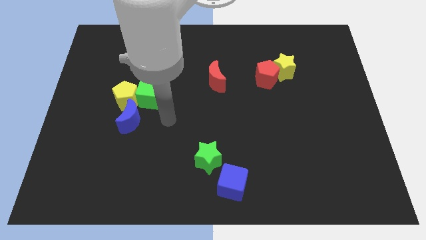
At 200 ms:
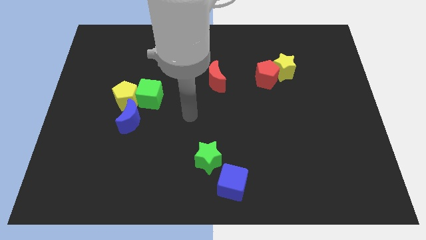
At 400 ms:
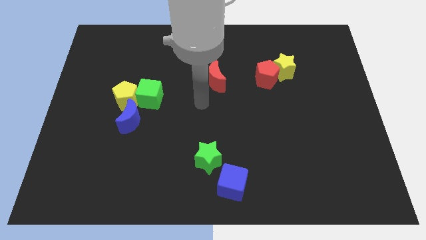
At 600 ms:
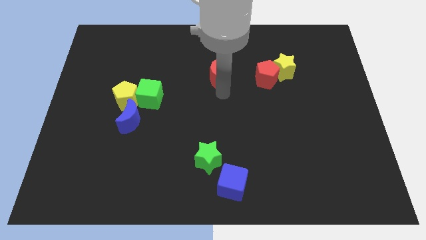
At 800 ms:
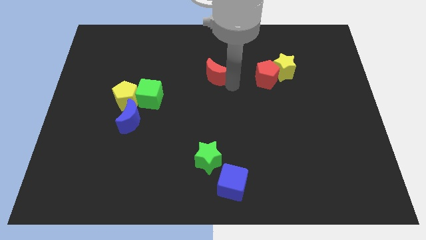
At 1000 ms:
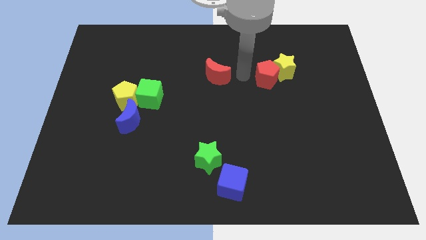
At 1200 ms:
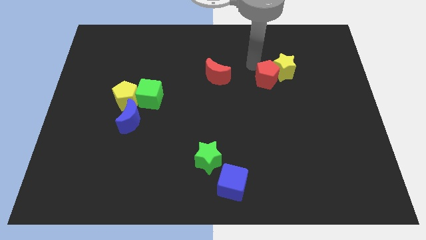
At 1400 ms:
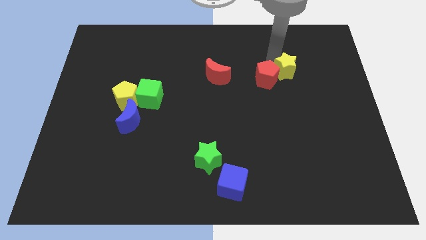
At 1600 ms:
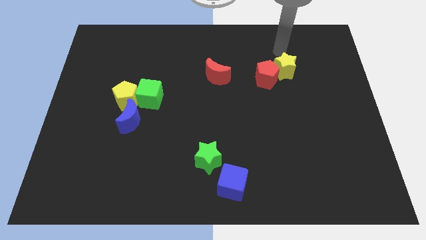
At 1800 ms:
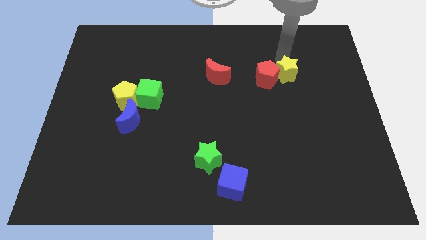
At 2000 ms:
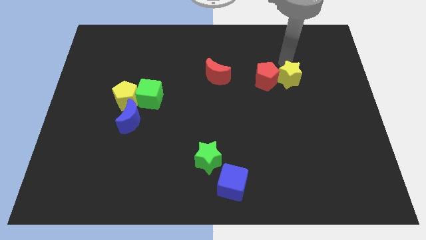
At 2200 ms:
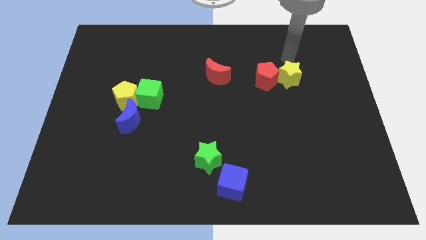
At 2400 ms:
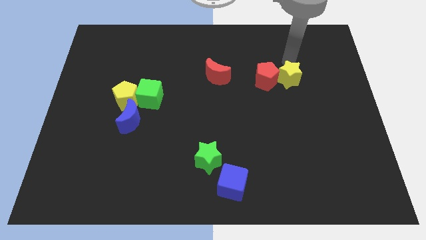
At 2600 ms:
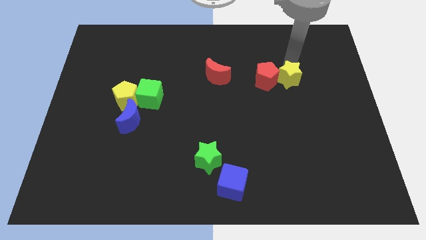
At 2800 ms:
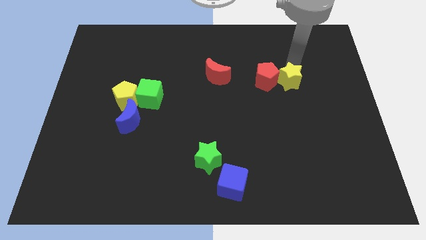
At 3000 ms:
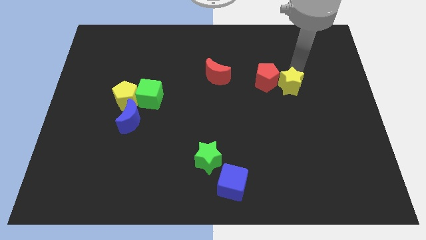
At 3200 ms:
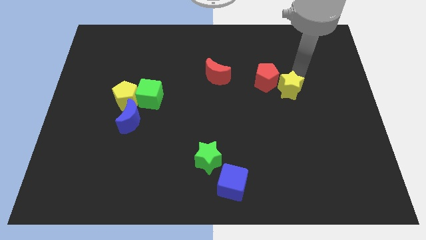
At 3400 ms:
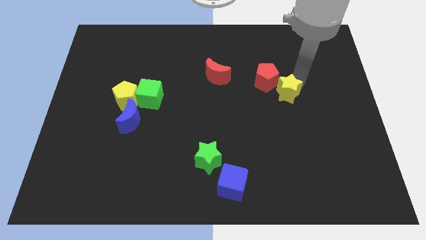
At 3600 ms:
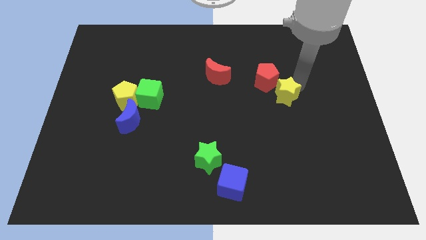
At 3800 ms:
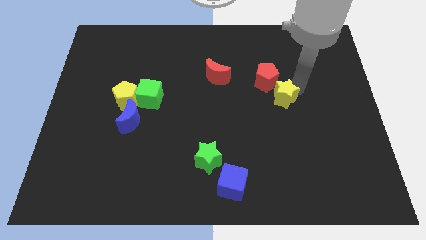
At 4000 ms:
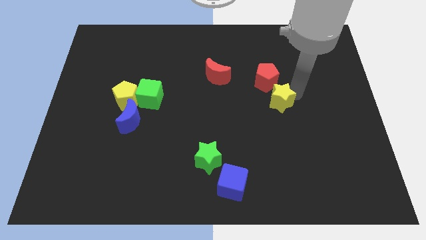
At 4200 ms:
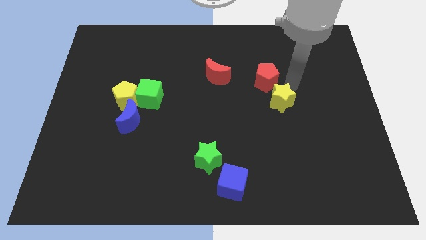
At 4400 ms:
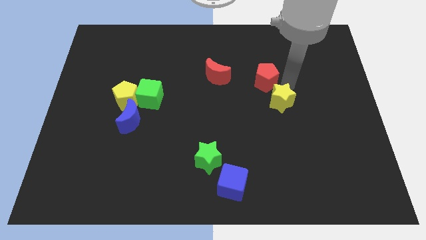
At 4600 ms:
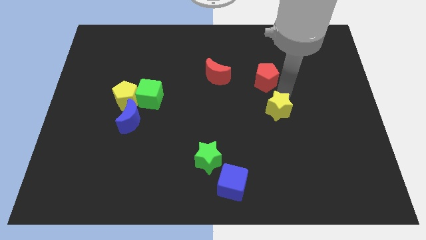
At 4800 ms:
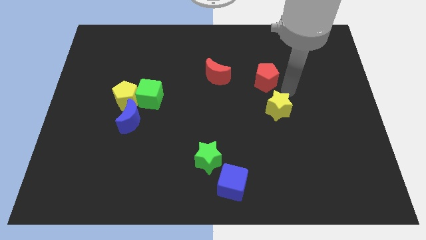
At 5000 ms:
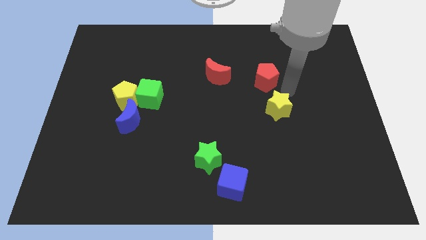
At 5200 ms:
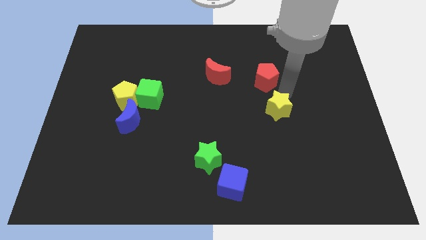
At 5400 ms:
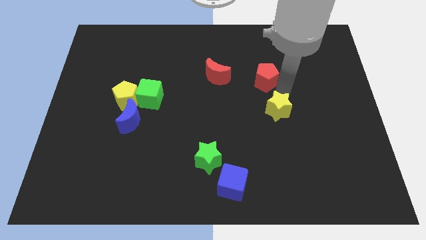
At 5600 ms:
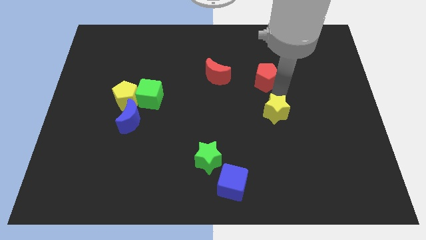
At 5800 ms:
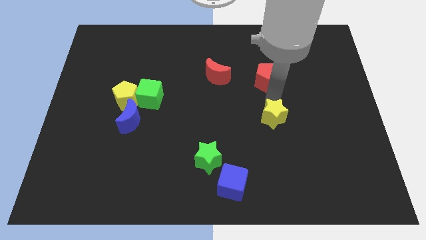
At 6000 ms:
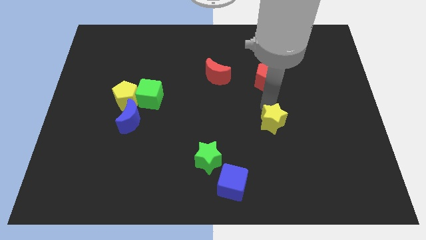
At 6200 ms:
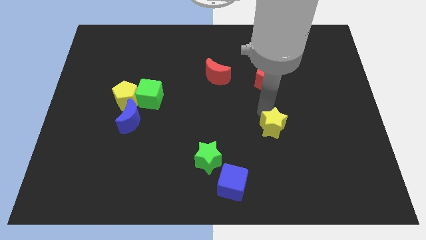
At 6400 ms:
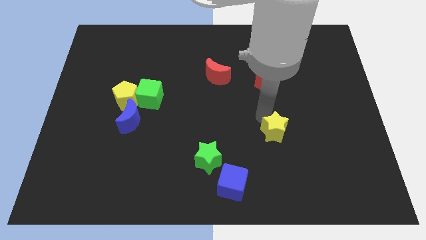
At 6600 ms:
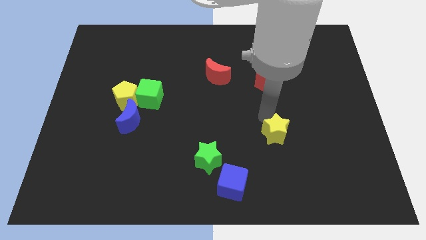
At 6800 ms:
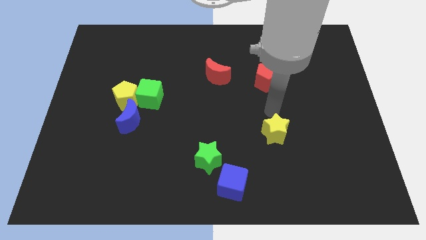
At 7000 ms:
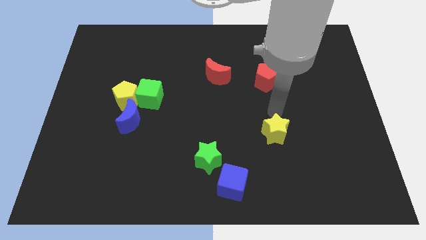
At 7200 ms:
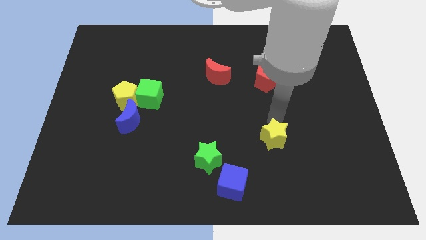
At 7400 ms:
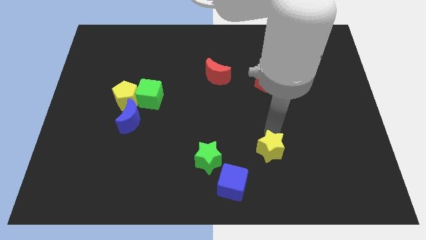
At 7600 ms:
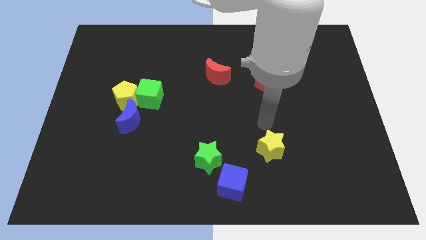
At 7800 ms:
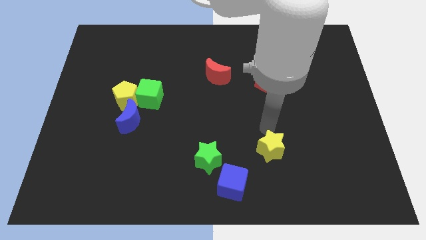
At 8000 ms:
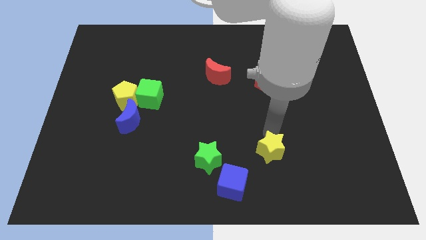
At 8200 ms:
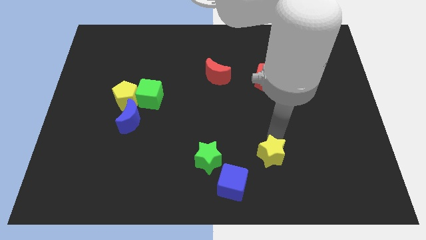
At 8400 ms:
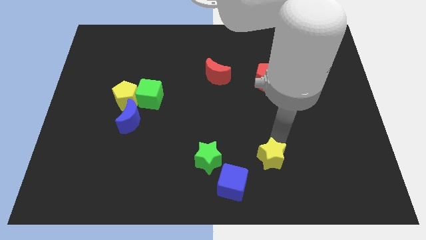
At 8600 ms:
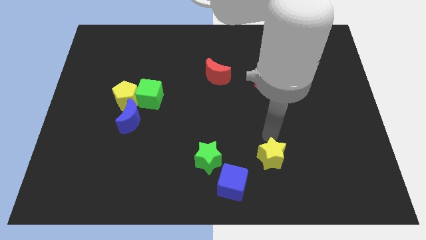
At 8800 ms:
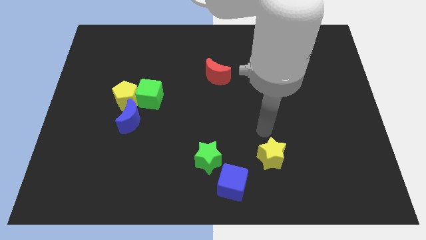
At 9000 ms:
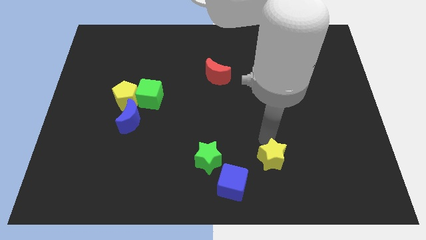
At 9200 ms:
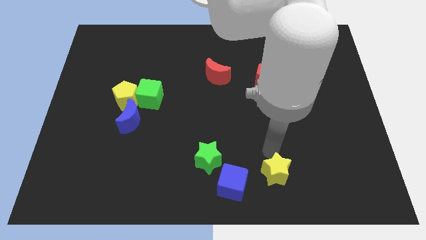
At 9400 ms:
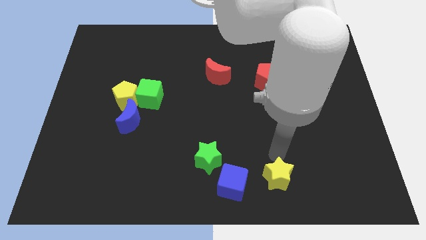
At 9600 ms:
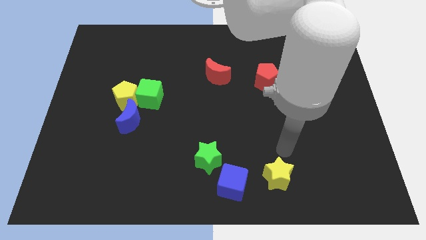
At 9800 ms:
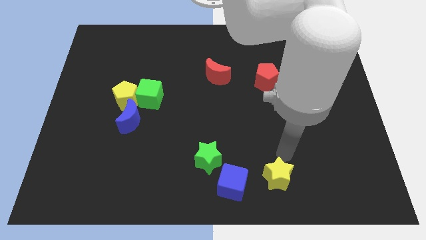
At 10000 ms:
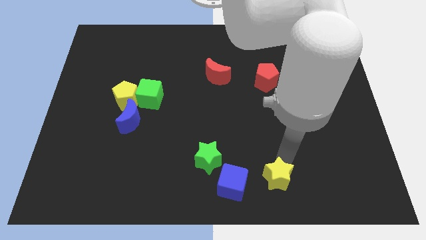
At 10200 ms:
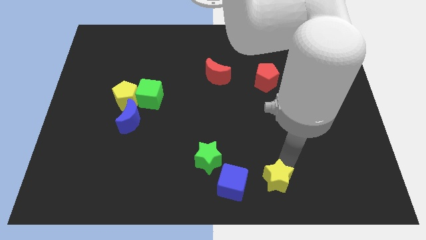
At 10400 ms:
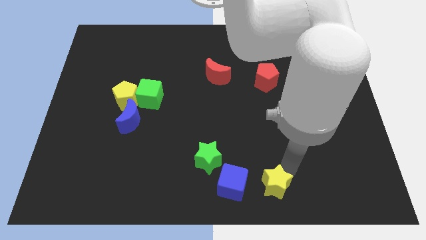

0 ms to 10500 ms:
push the yellow star to the bottom

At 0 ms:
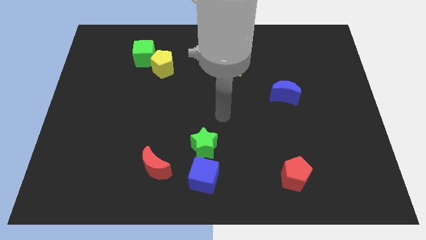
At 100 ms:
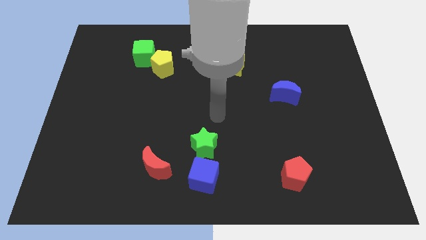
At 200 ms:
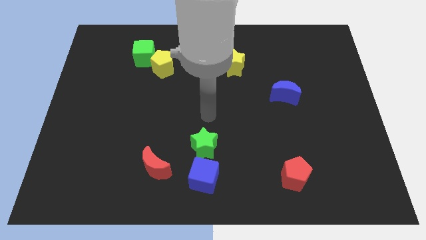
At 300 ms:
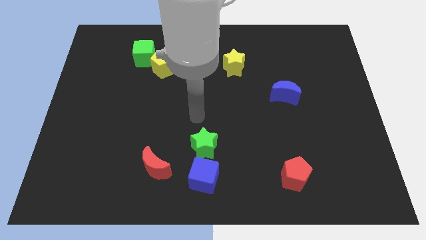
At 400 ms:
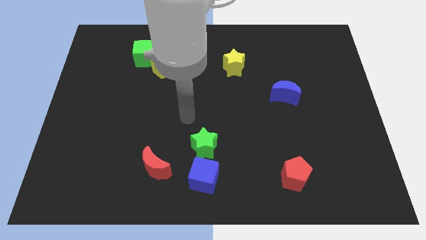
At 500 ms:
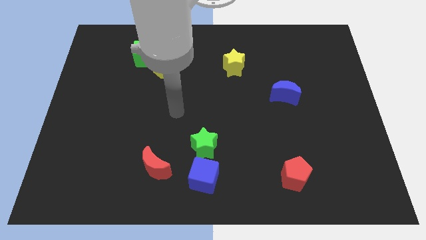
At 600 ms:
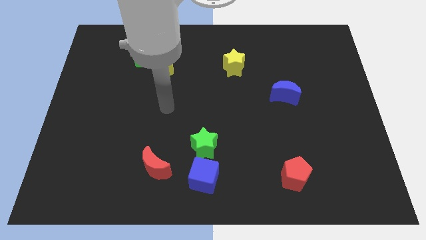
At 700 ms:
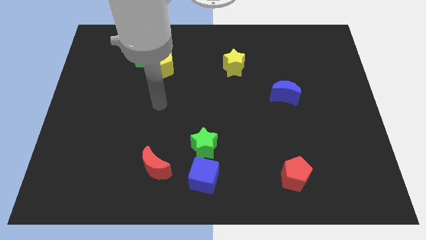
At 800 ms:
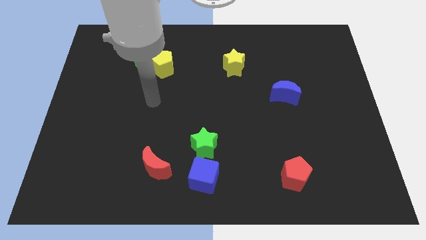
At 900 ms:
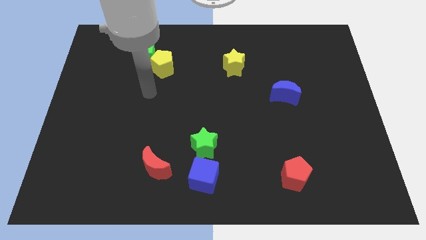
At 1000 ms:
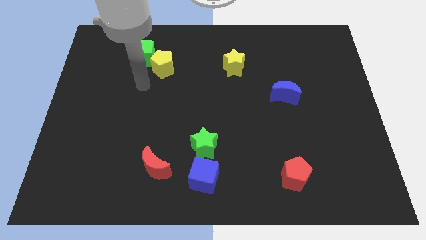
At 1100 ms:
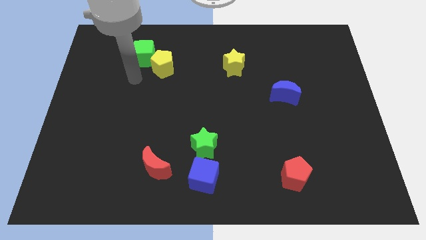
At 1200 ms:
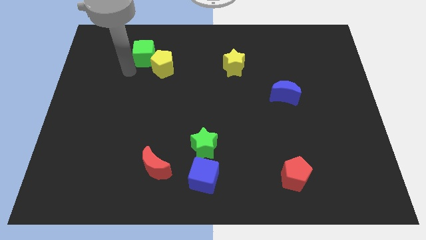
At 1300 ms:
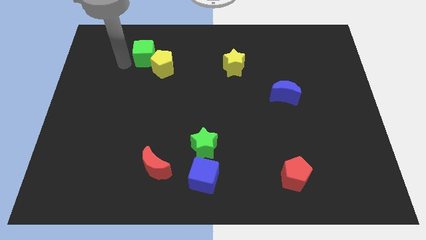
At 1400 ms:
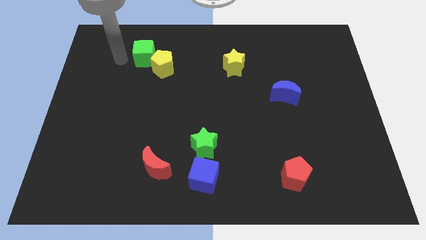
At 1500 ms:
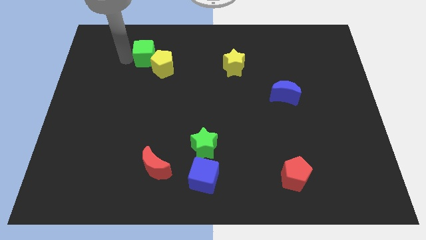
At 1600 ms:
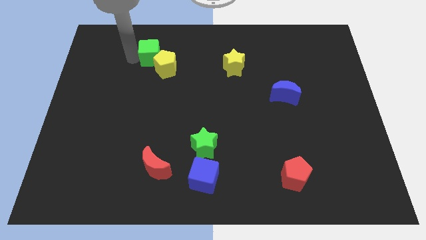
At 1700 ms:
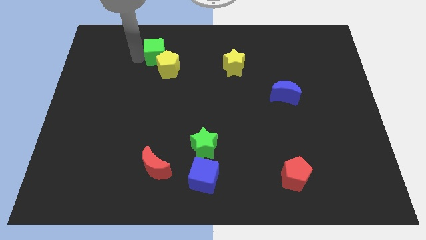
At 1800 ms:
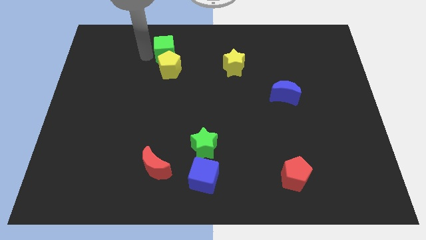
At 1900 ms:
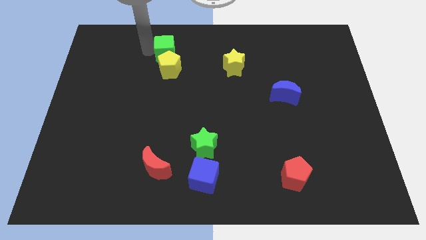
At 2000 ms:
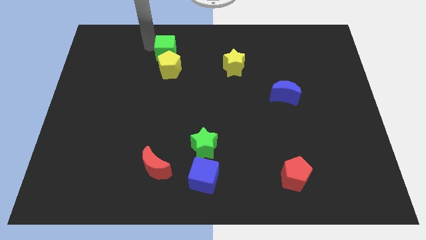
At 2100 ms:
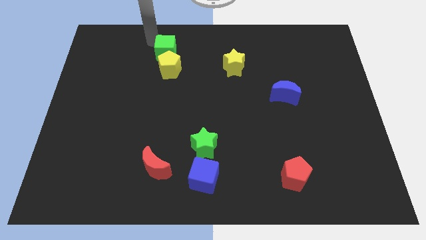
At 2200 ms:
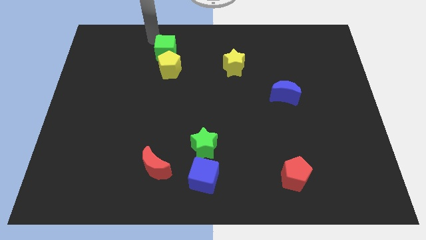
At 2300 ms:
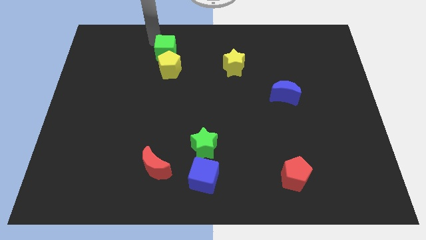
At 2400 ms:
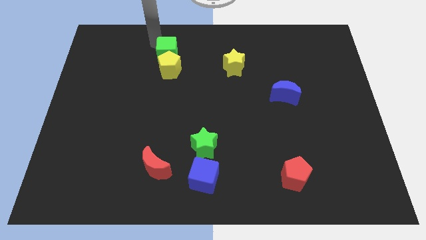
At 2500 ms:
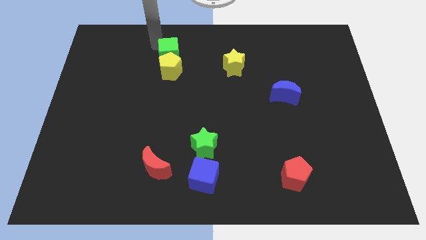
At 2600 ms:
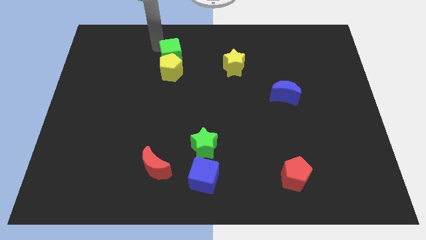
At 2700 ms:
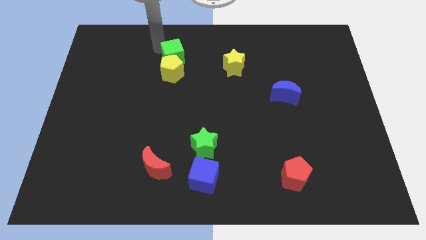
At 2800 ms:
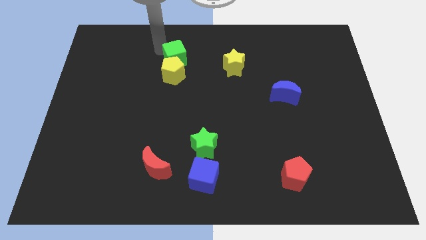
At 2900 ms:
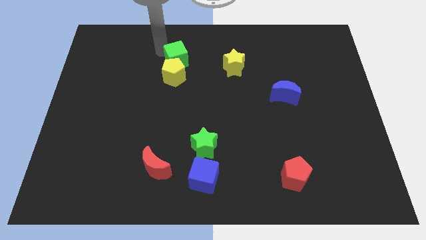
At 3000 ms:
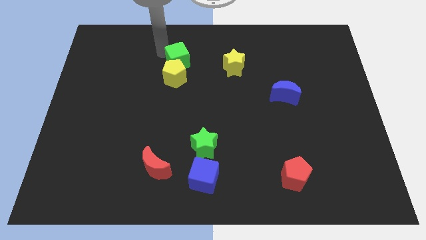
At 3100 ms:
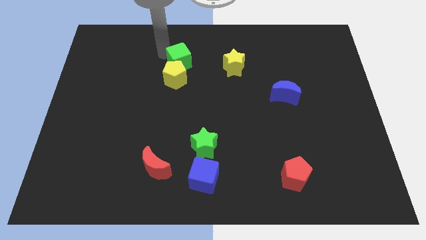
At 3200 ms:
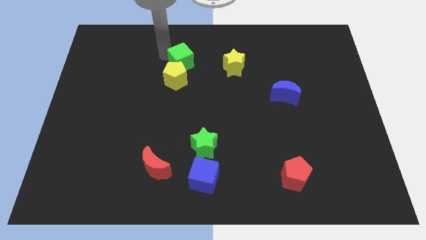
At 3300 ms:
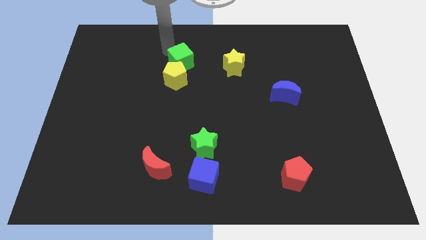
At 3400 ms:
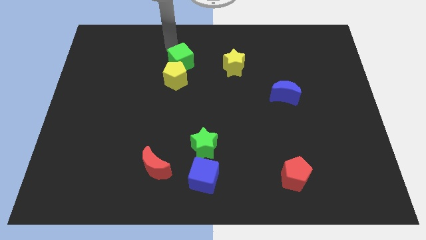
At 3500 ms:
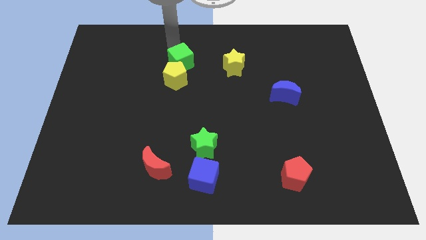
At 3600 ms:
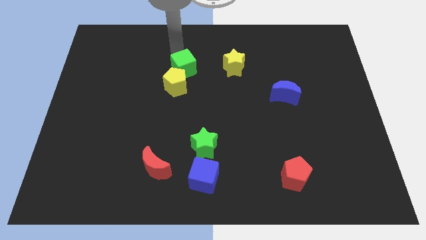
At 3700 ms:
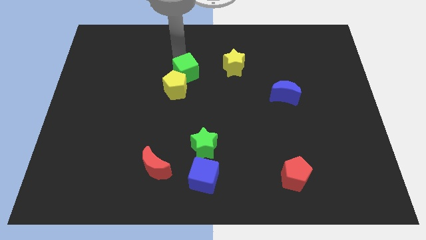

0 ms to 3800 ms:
put the green cube to the center of the board
